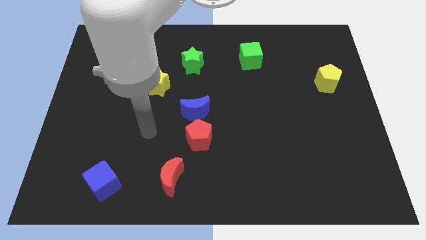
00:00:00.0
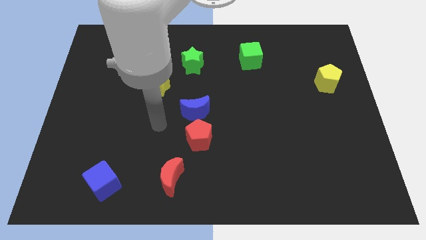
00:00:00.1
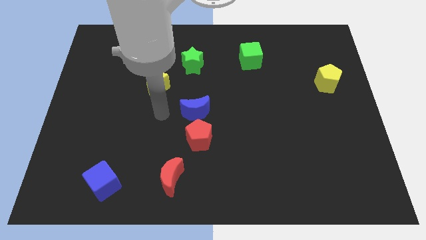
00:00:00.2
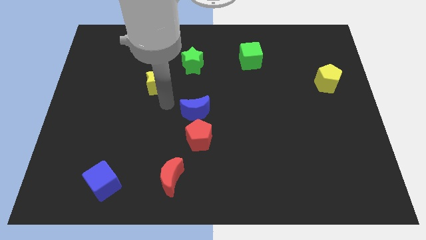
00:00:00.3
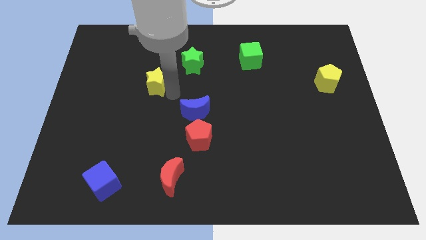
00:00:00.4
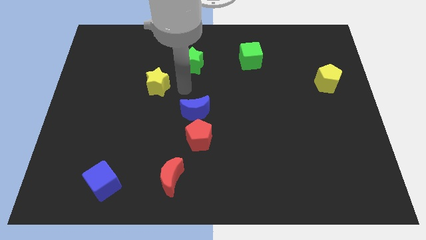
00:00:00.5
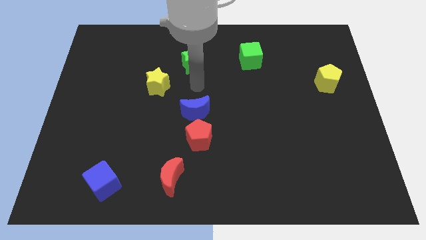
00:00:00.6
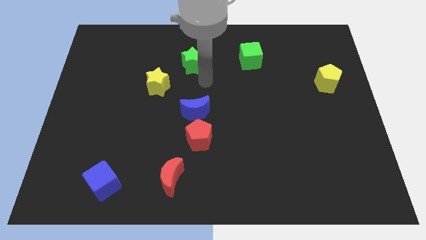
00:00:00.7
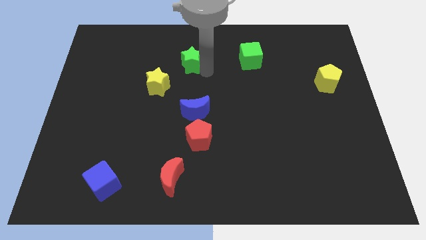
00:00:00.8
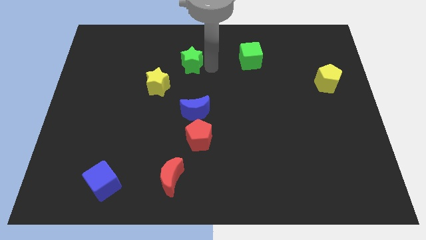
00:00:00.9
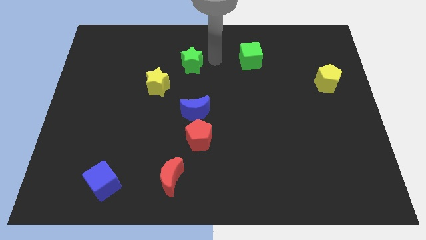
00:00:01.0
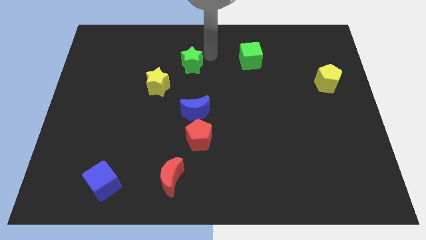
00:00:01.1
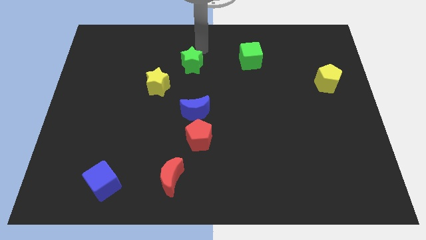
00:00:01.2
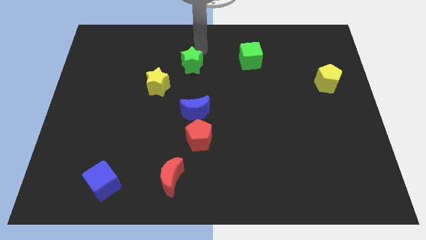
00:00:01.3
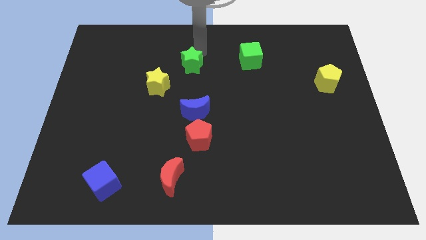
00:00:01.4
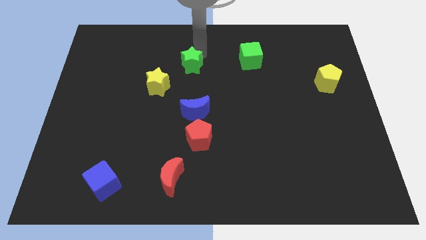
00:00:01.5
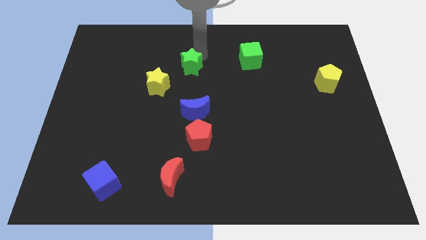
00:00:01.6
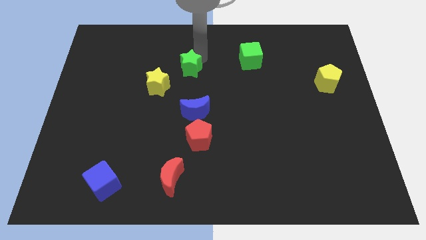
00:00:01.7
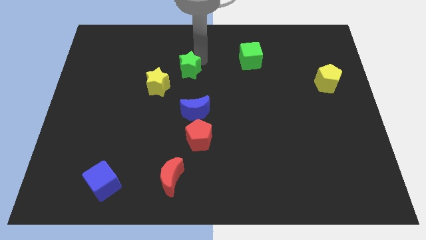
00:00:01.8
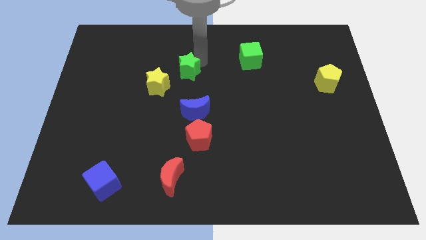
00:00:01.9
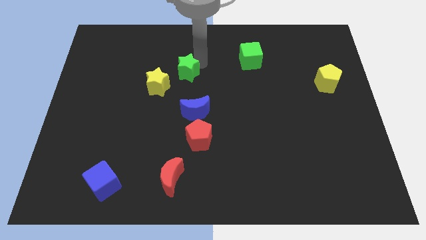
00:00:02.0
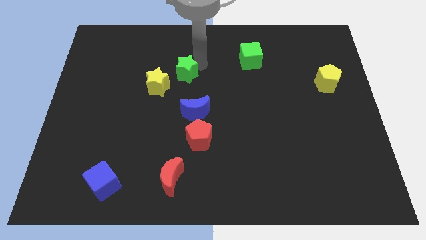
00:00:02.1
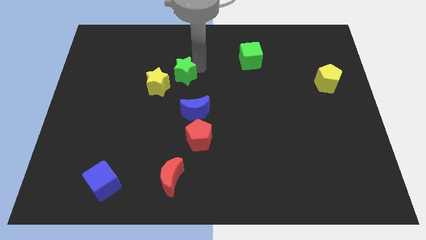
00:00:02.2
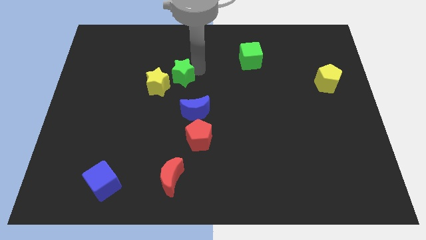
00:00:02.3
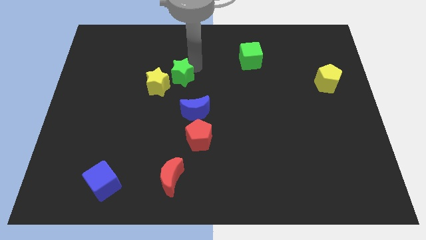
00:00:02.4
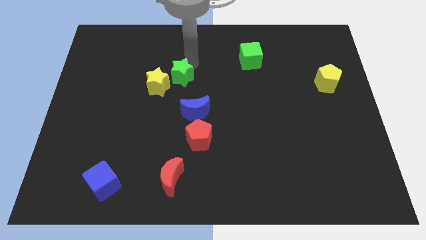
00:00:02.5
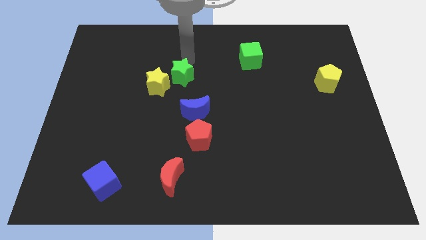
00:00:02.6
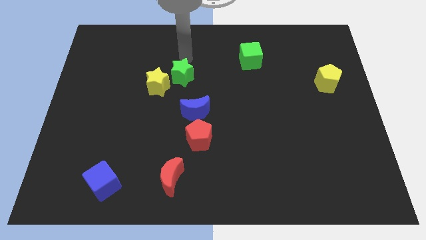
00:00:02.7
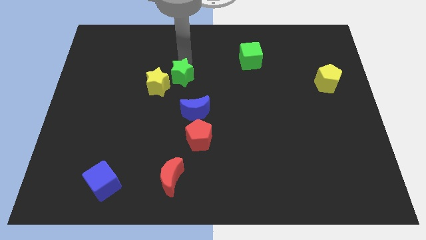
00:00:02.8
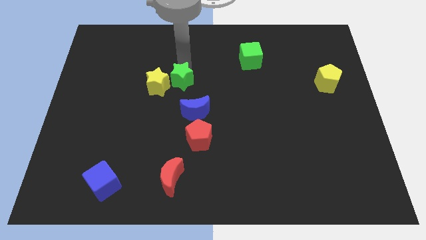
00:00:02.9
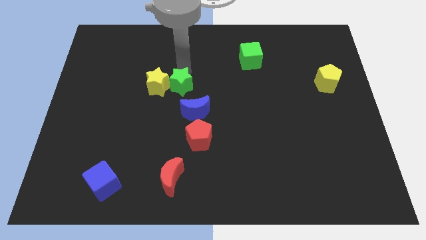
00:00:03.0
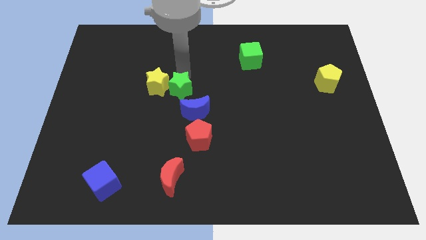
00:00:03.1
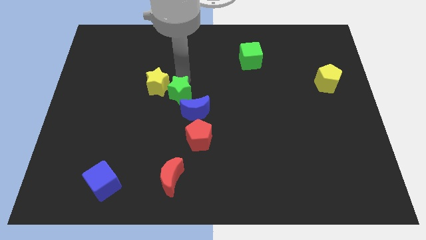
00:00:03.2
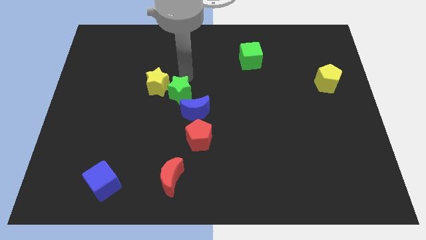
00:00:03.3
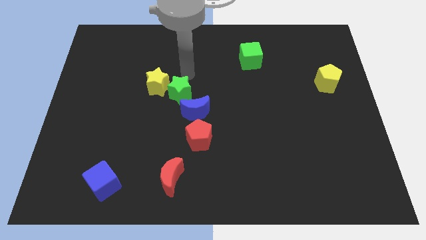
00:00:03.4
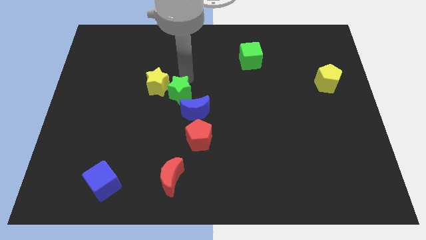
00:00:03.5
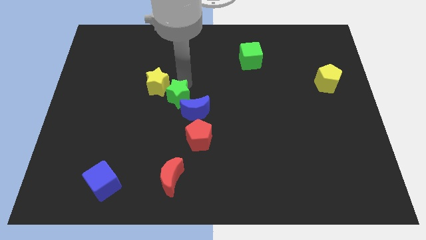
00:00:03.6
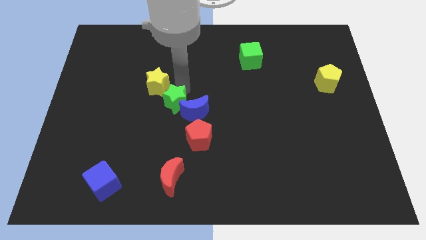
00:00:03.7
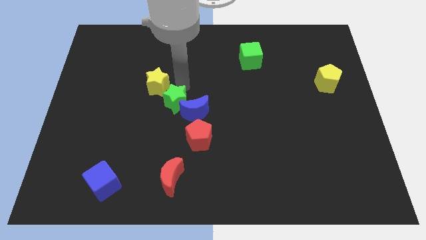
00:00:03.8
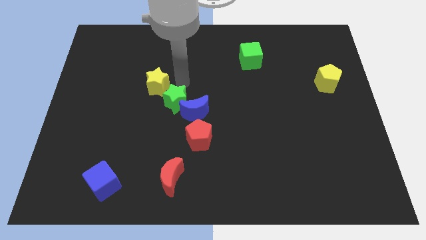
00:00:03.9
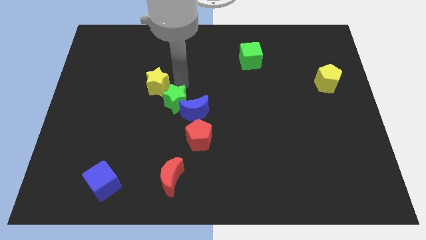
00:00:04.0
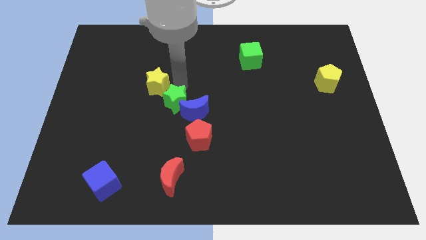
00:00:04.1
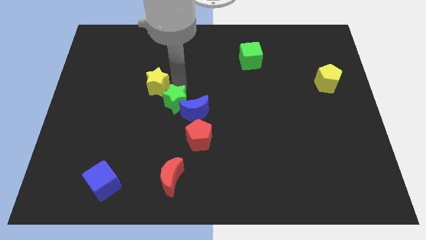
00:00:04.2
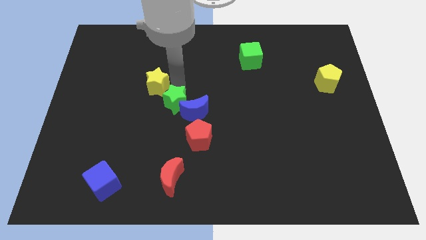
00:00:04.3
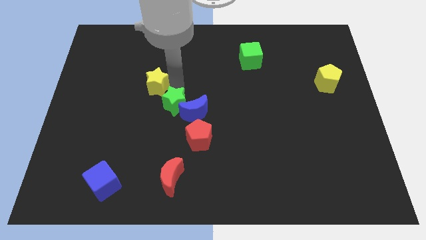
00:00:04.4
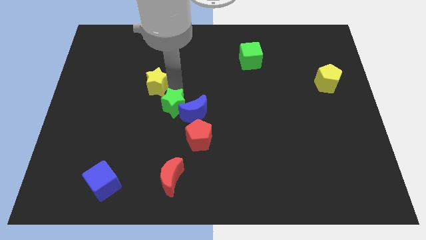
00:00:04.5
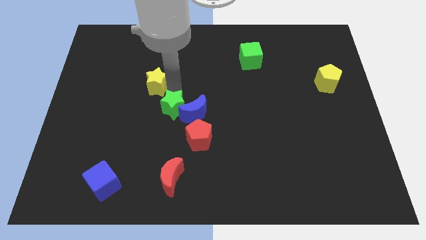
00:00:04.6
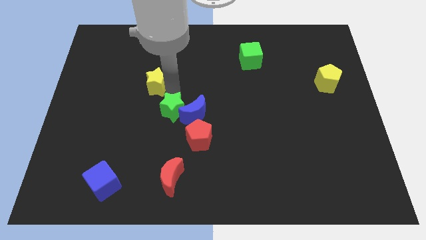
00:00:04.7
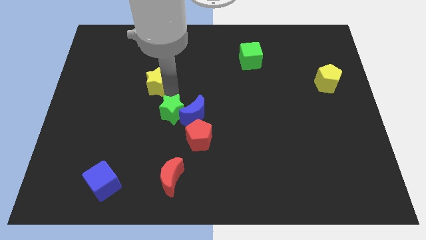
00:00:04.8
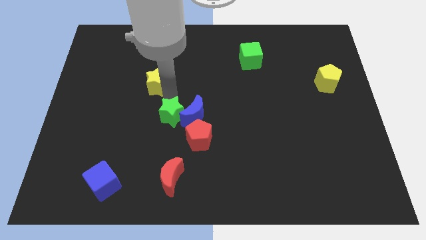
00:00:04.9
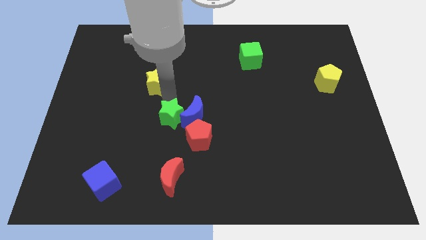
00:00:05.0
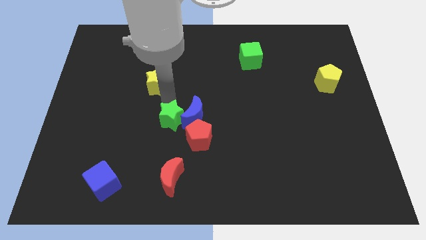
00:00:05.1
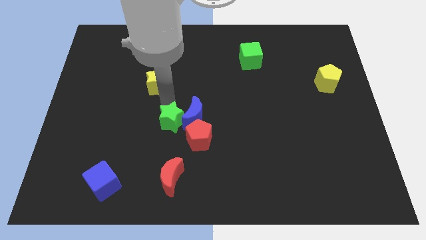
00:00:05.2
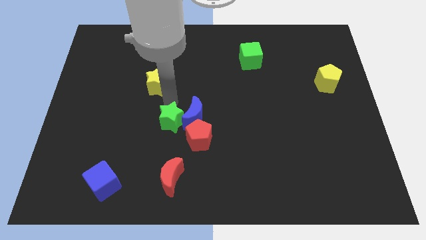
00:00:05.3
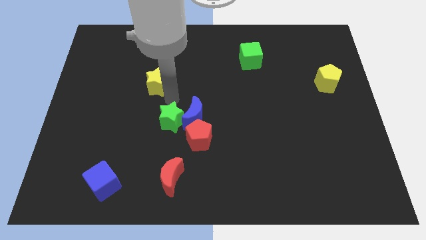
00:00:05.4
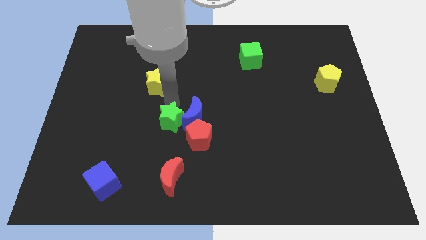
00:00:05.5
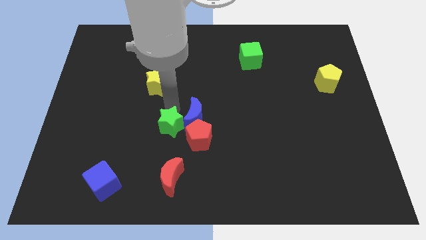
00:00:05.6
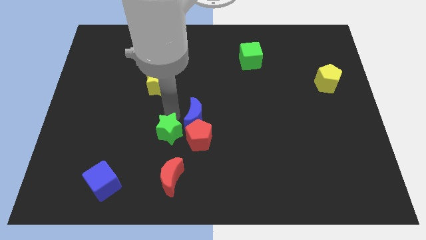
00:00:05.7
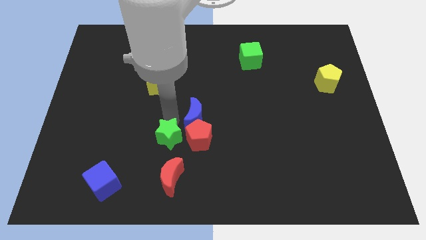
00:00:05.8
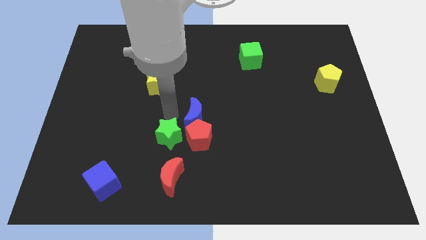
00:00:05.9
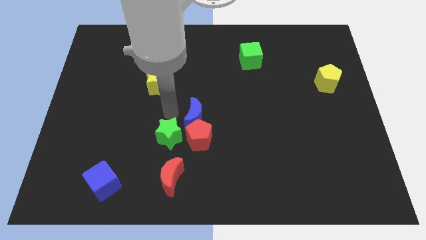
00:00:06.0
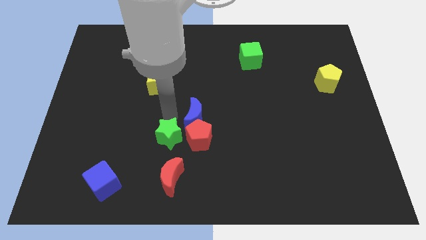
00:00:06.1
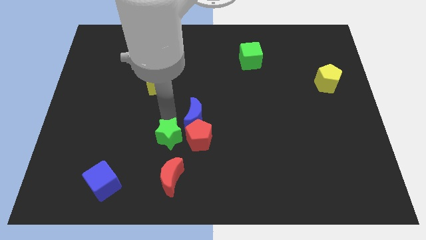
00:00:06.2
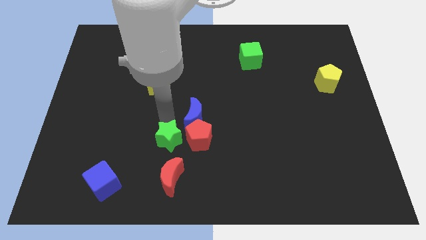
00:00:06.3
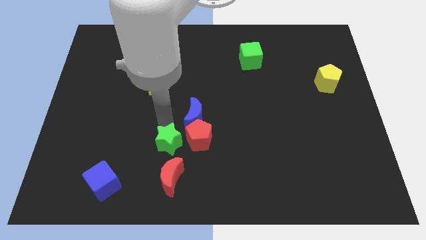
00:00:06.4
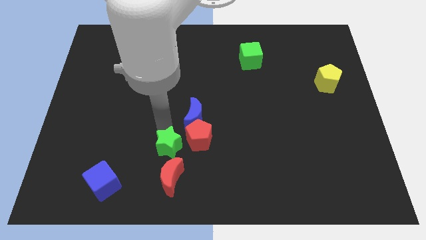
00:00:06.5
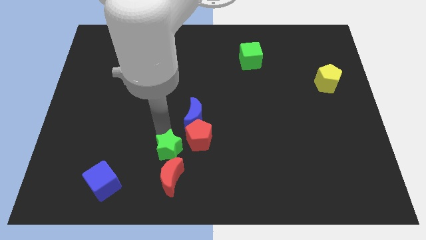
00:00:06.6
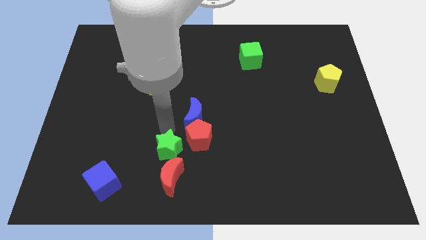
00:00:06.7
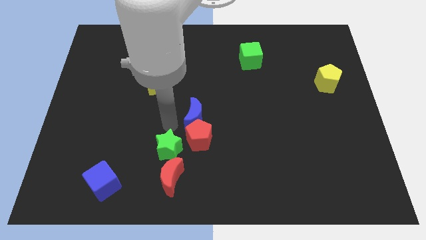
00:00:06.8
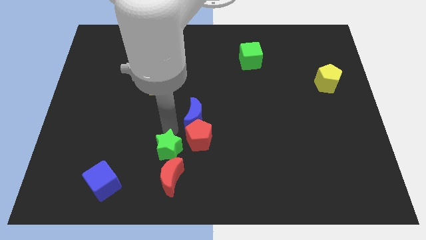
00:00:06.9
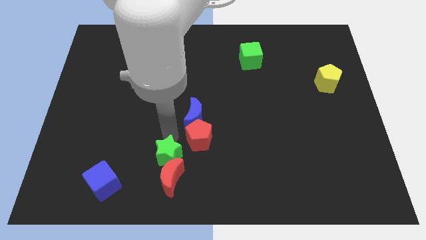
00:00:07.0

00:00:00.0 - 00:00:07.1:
move the green star towards the red moon
